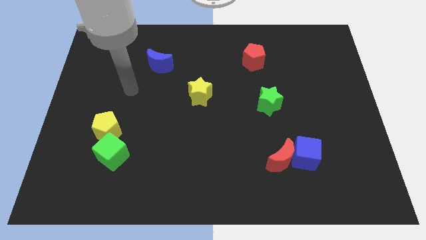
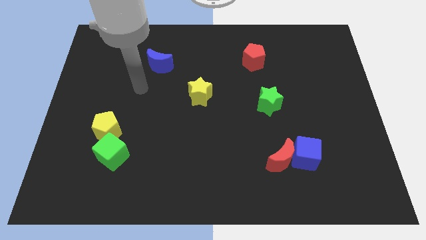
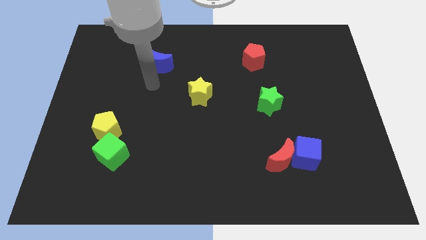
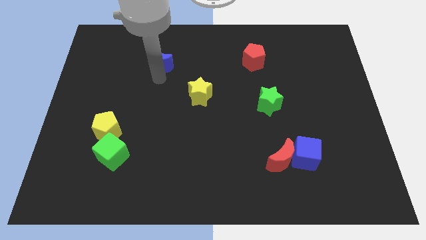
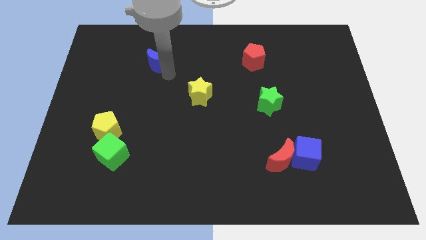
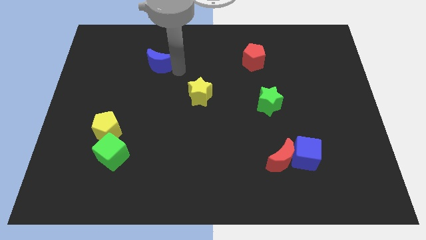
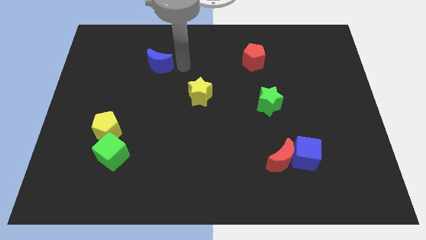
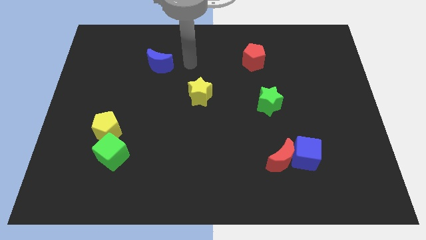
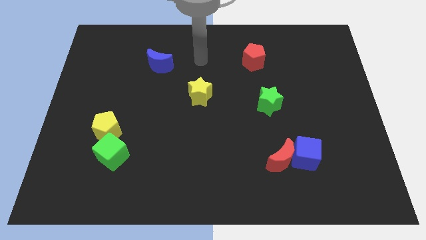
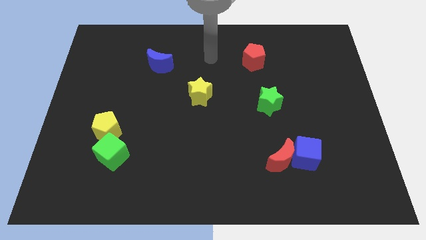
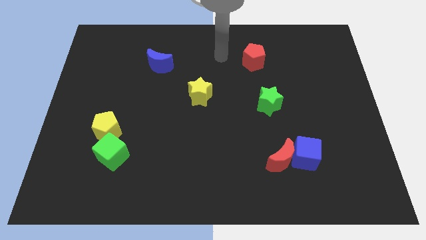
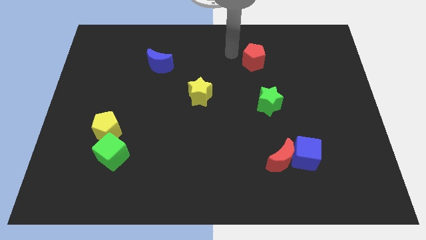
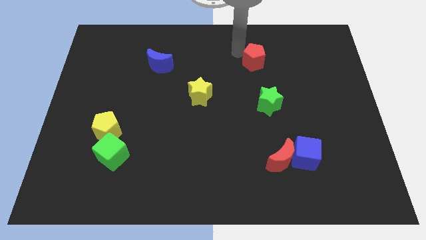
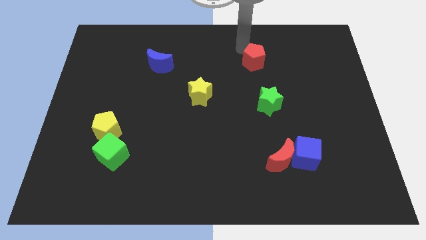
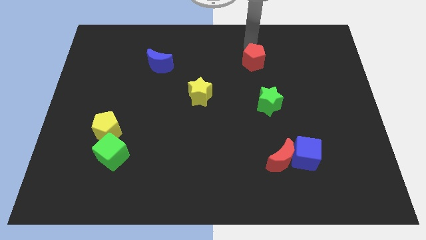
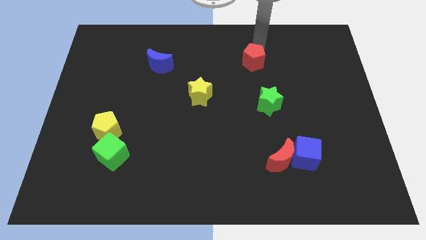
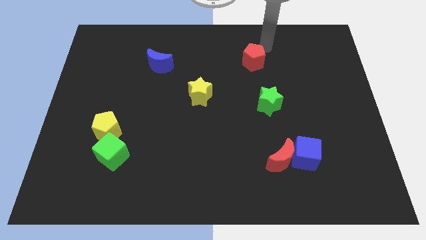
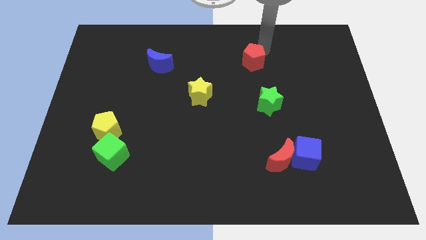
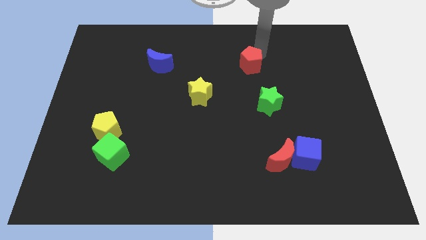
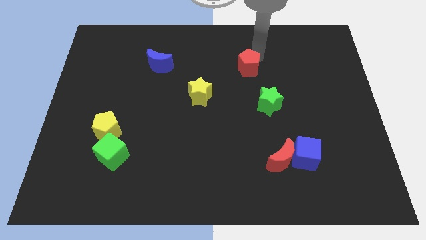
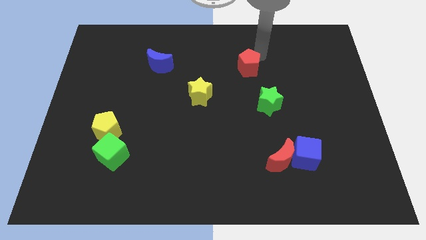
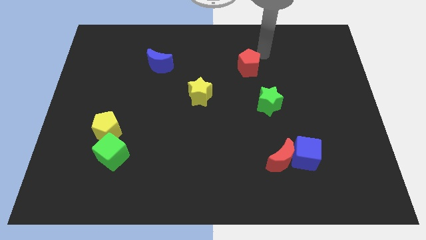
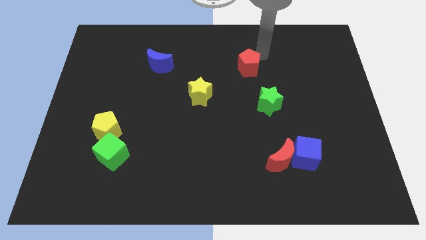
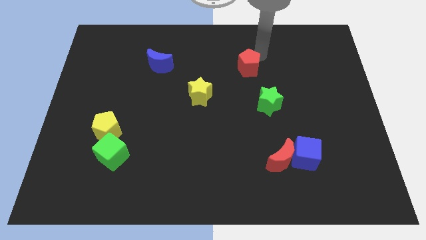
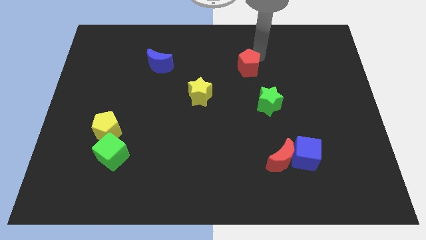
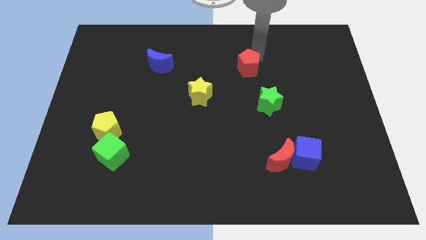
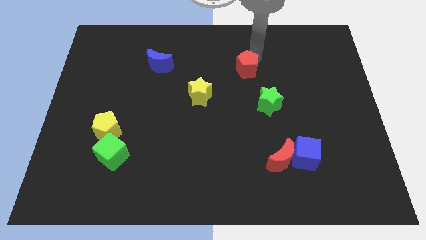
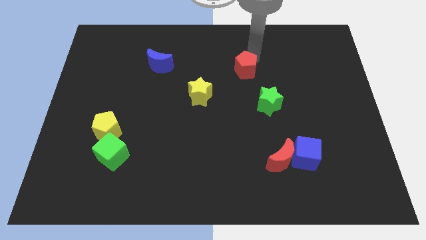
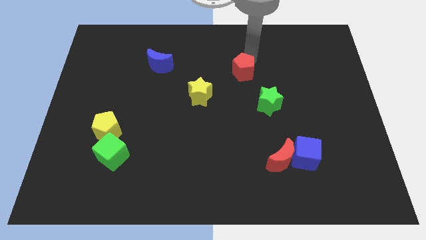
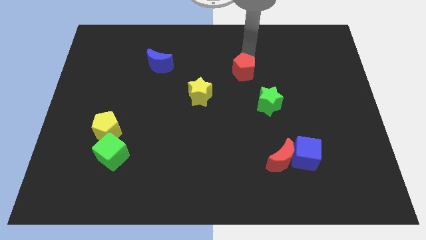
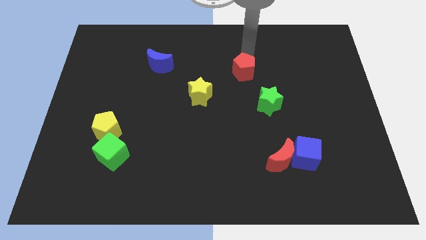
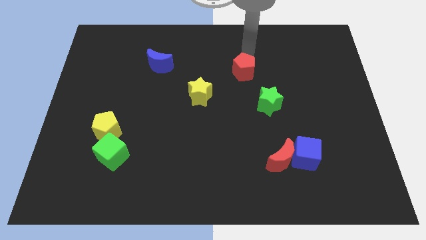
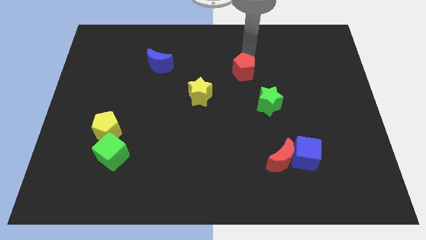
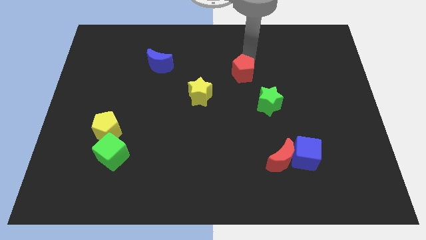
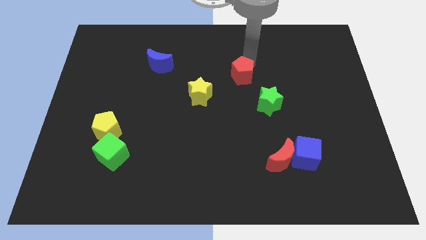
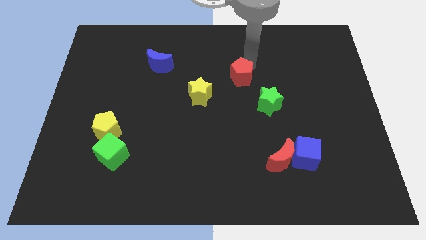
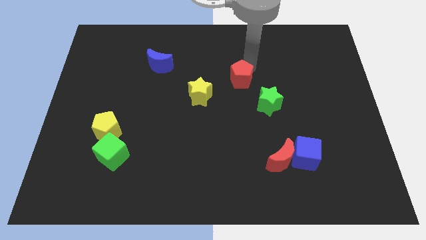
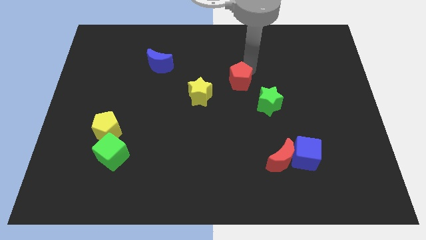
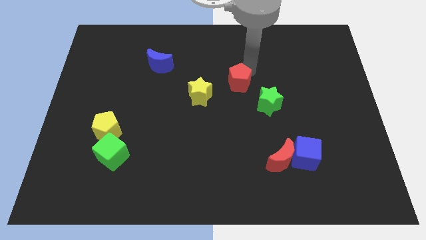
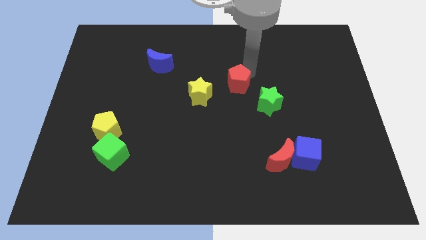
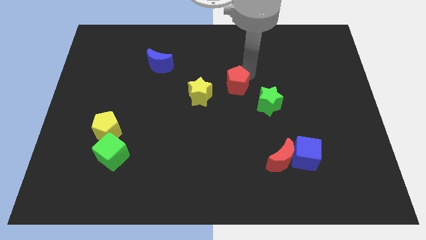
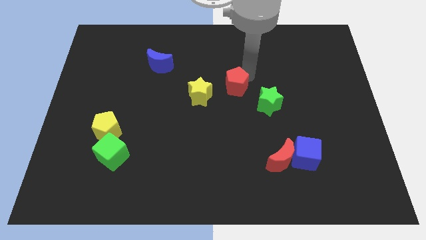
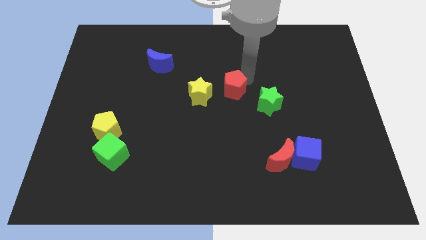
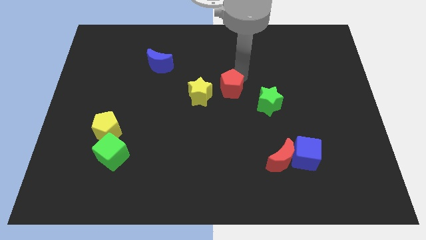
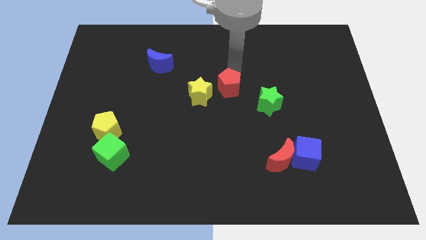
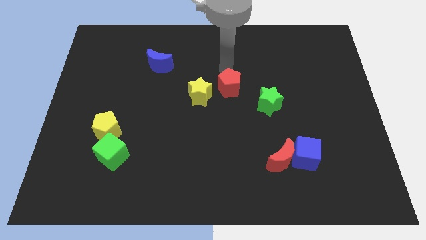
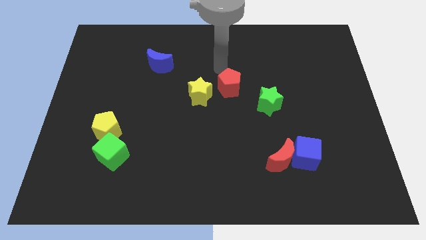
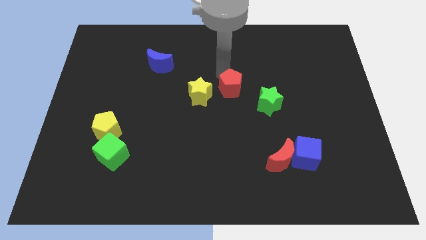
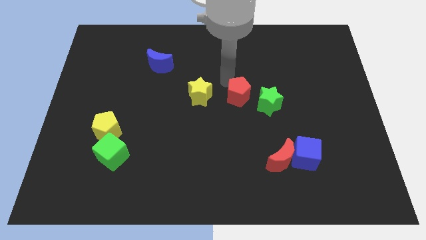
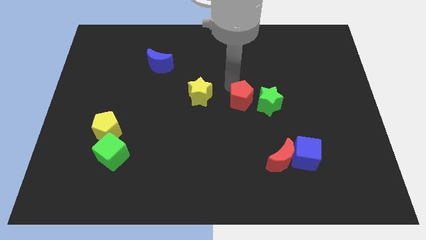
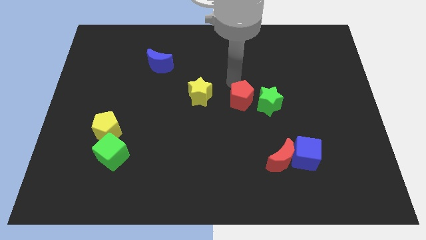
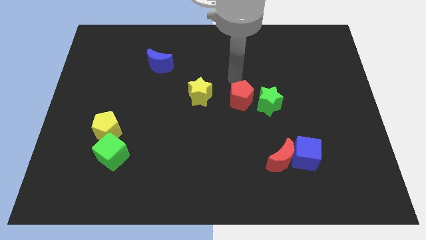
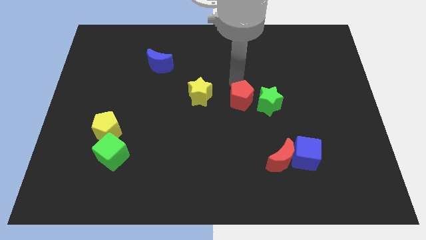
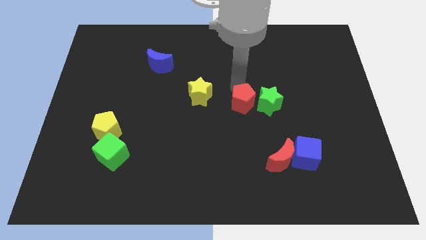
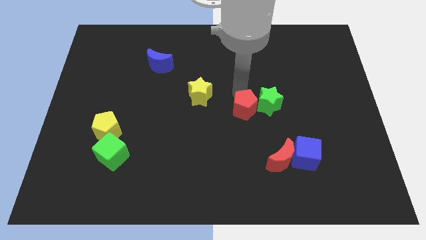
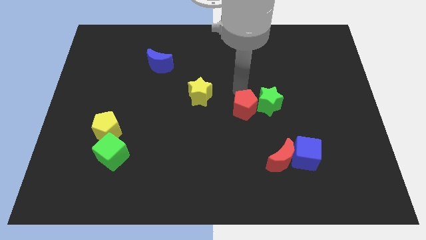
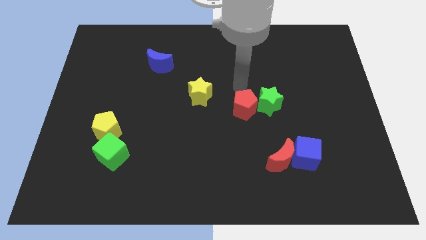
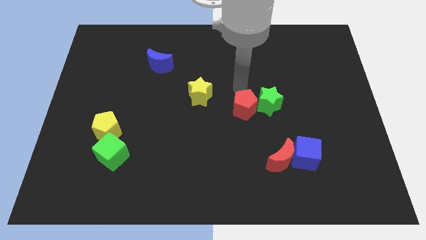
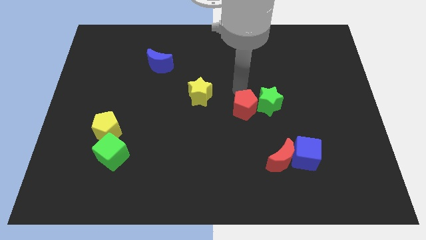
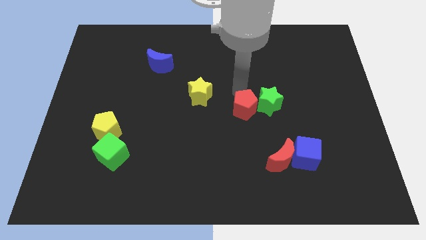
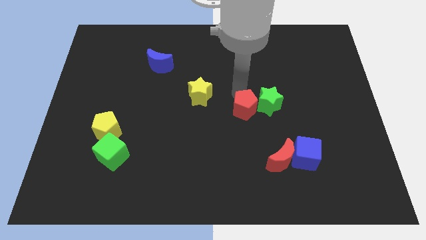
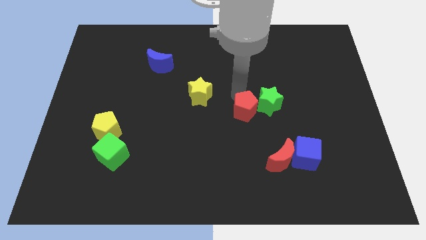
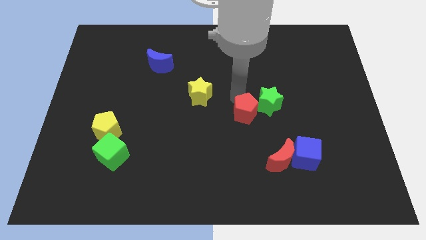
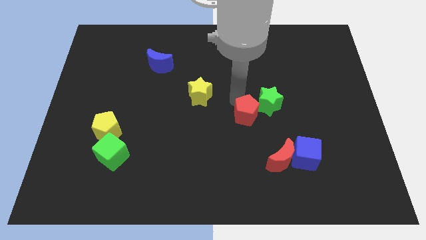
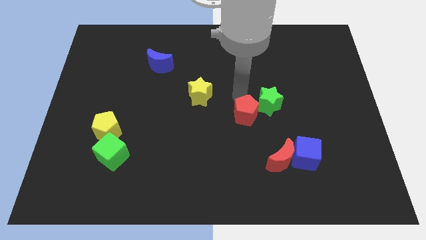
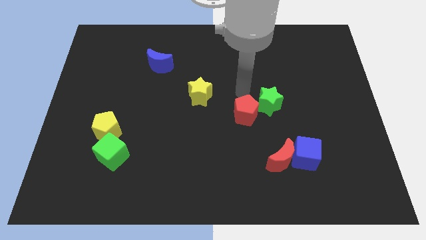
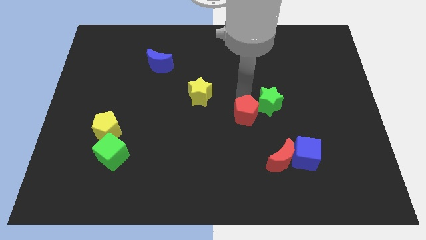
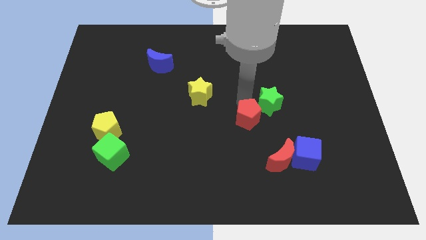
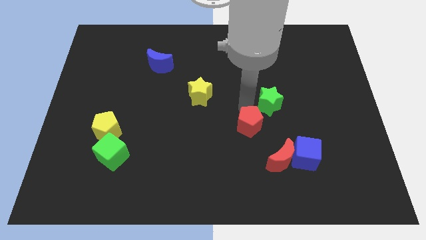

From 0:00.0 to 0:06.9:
move the red pentagon downwards

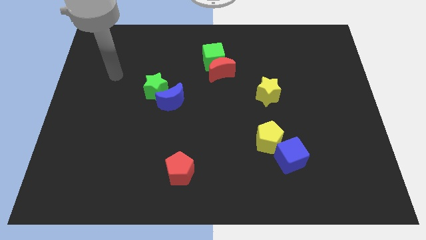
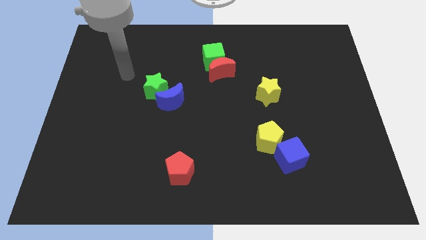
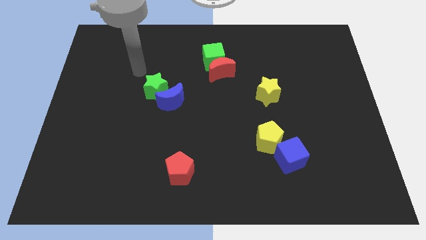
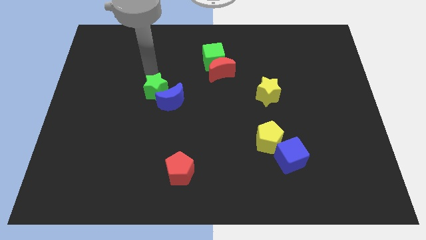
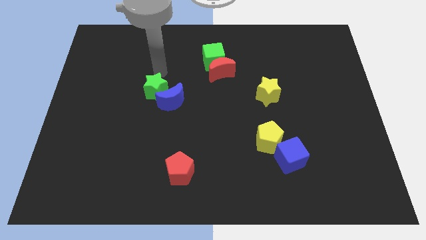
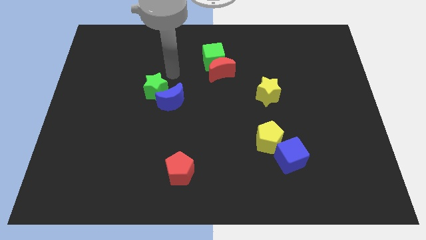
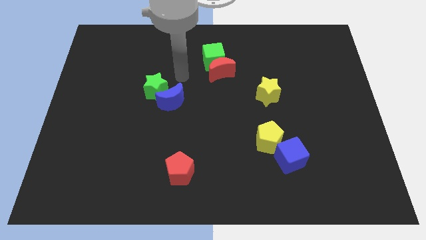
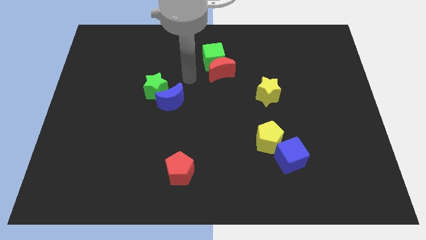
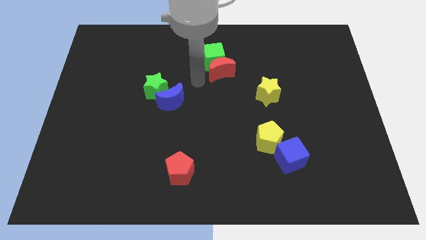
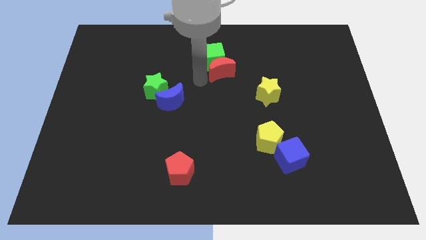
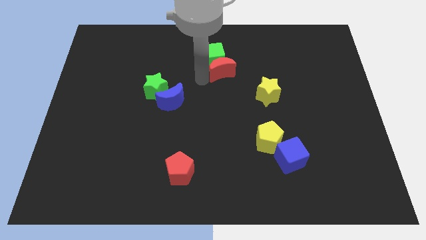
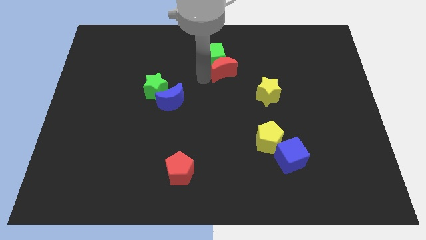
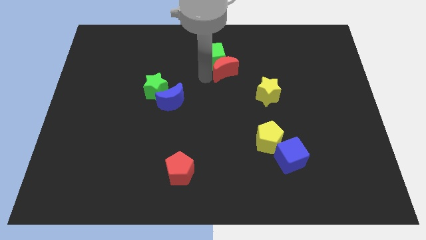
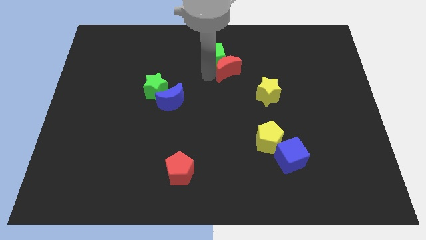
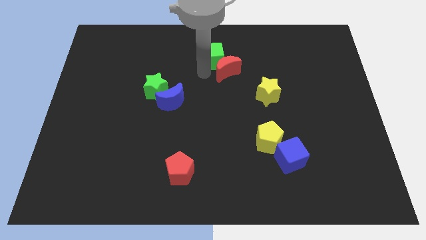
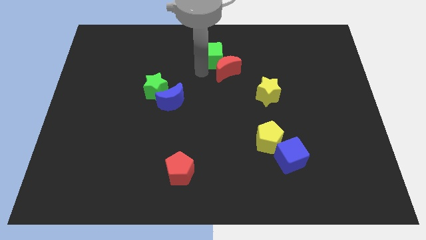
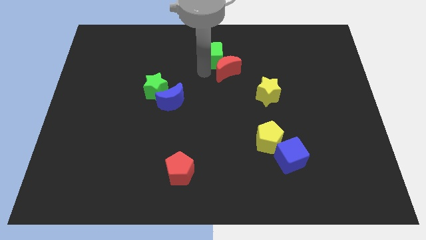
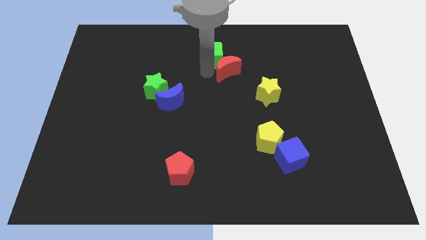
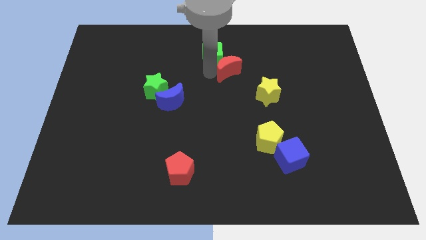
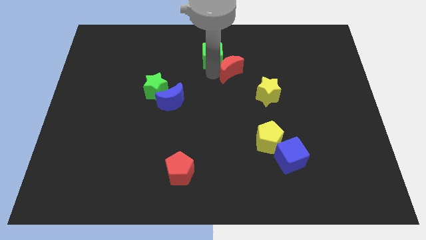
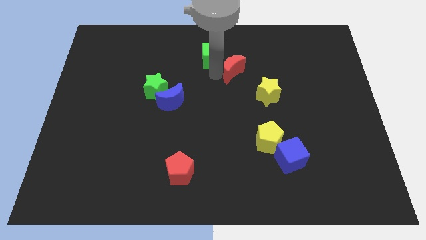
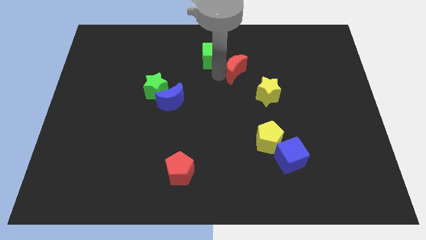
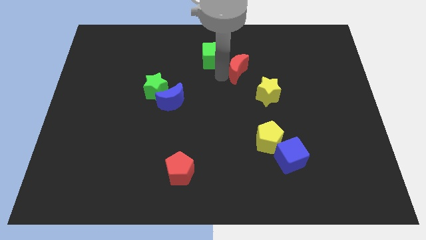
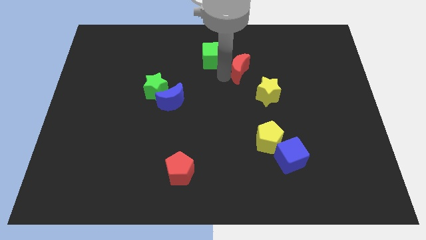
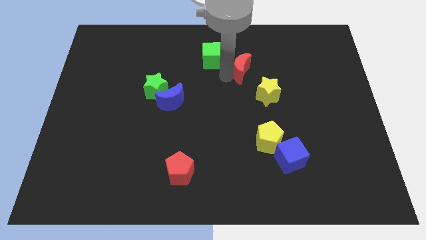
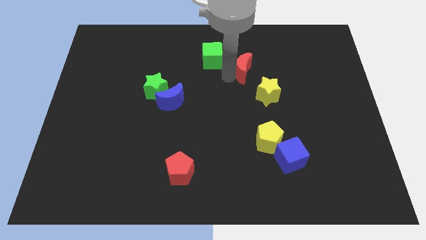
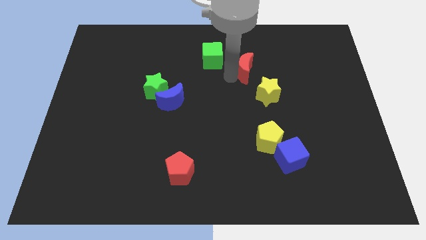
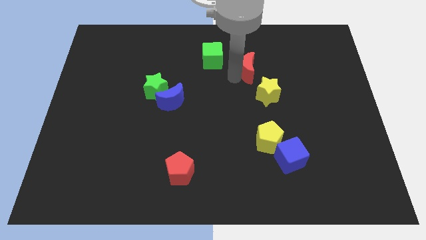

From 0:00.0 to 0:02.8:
move the red moon a bit right
